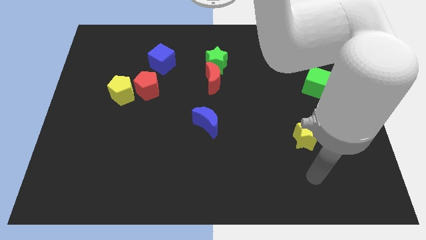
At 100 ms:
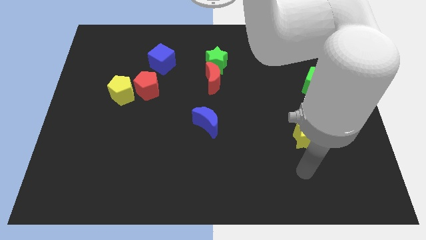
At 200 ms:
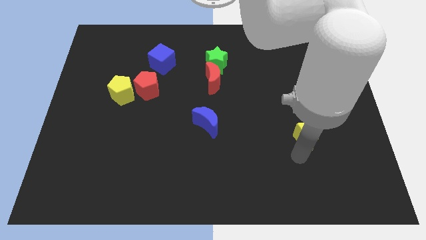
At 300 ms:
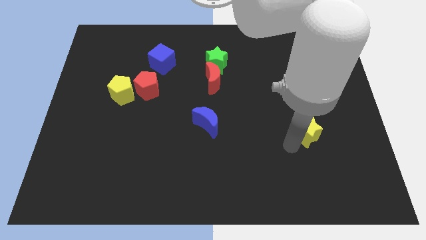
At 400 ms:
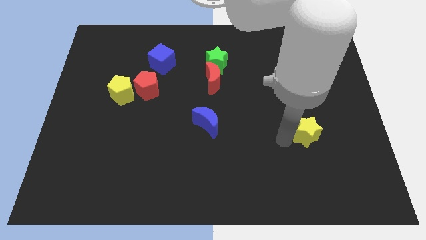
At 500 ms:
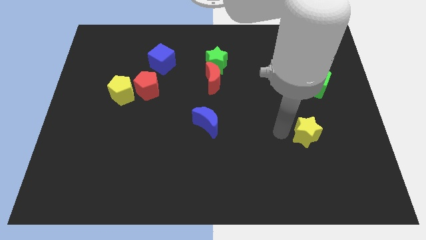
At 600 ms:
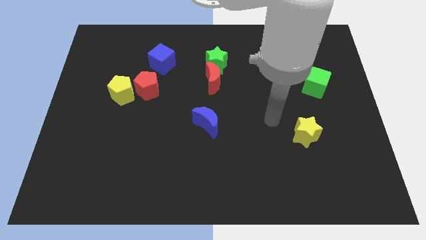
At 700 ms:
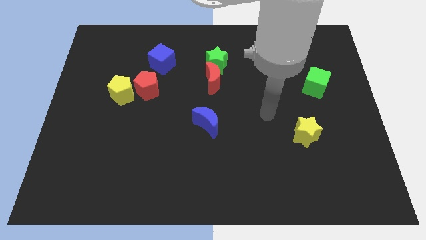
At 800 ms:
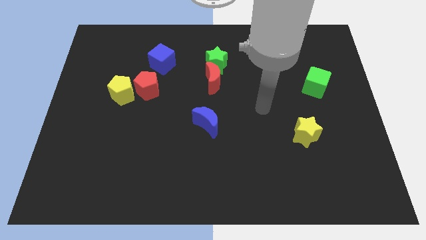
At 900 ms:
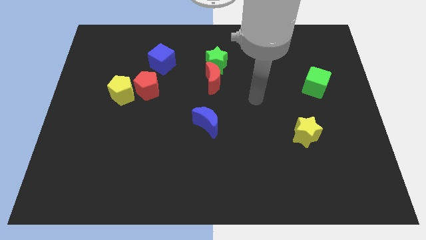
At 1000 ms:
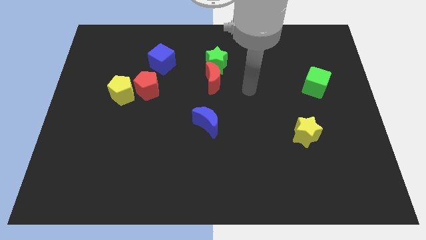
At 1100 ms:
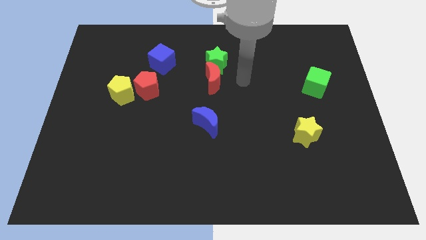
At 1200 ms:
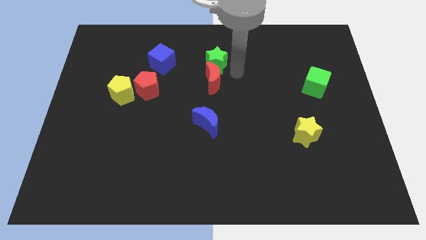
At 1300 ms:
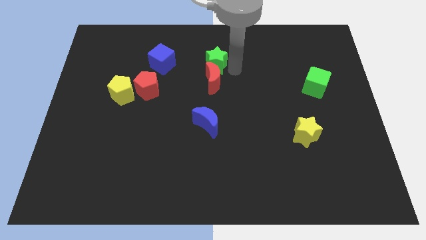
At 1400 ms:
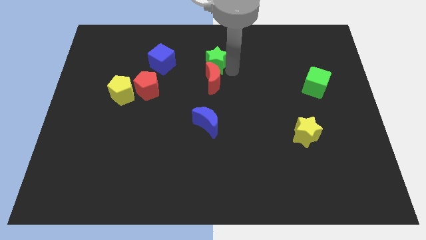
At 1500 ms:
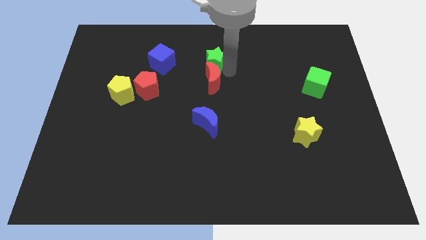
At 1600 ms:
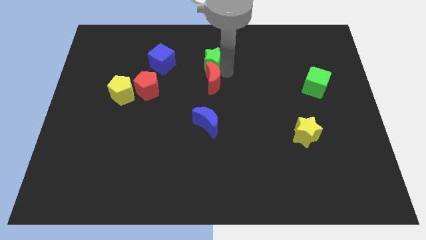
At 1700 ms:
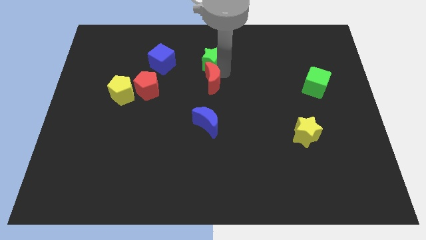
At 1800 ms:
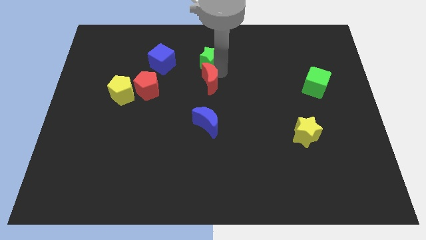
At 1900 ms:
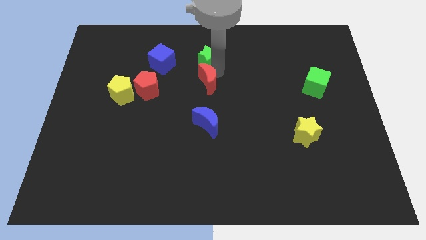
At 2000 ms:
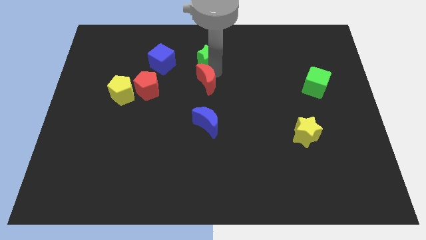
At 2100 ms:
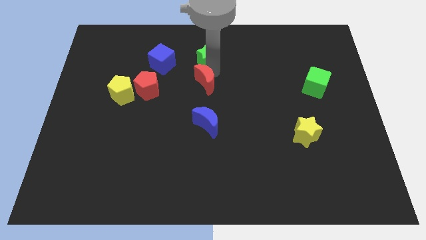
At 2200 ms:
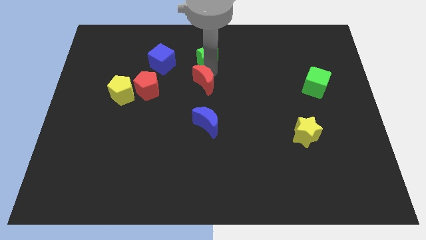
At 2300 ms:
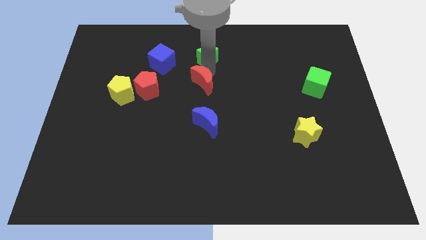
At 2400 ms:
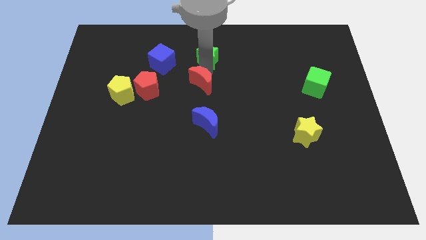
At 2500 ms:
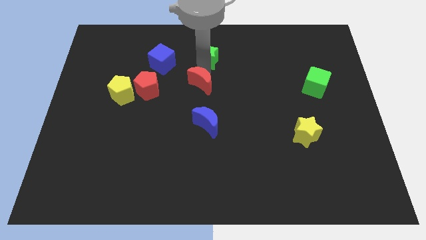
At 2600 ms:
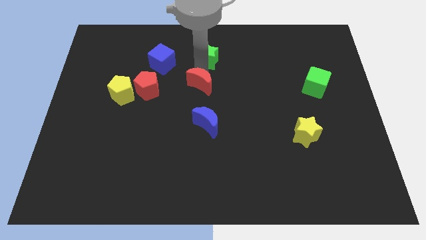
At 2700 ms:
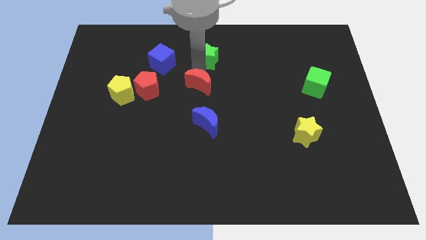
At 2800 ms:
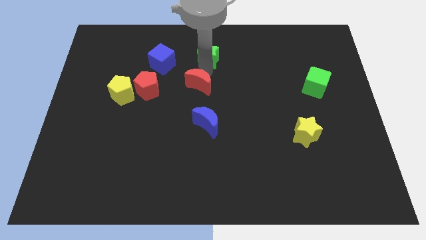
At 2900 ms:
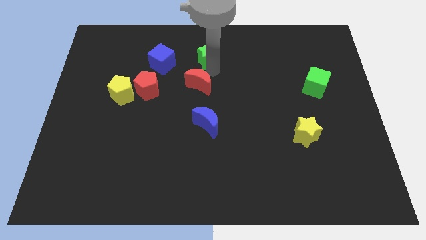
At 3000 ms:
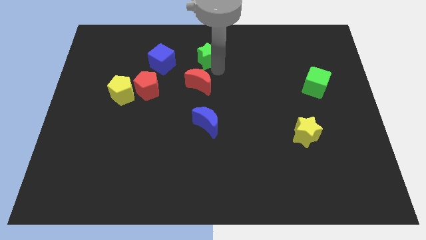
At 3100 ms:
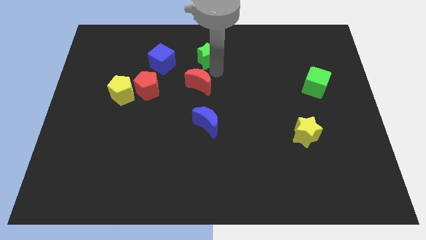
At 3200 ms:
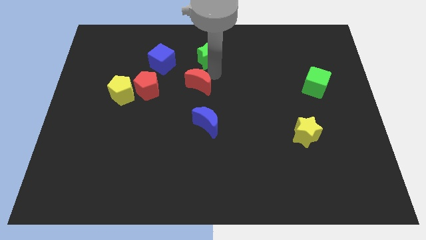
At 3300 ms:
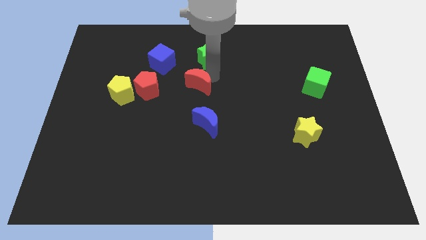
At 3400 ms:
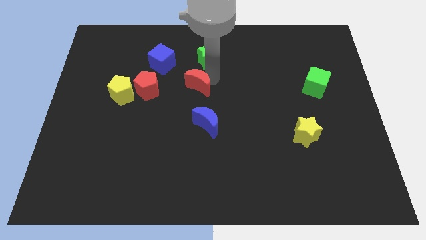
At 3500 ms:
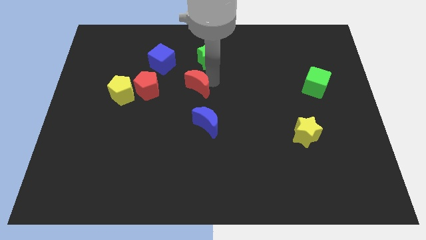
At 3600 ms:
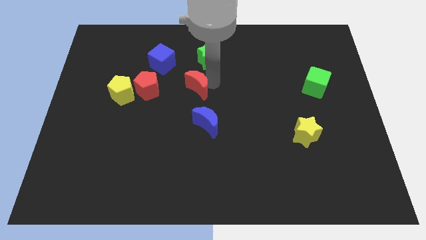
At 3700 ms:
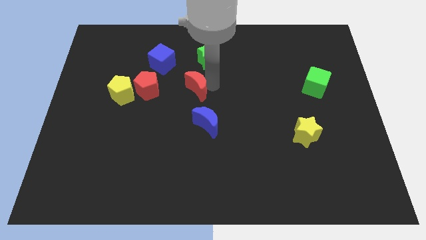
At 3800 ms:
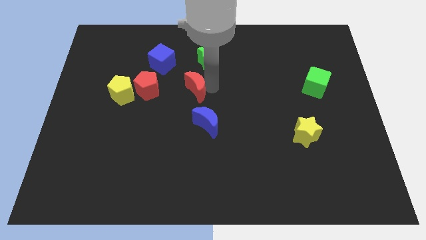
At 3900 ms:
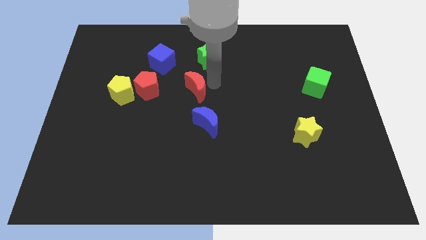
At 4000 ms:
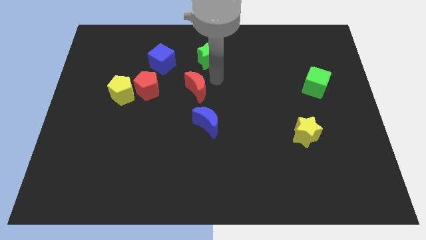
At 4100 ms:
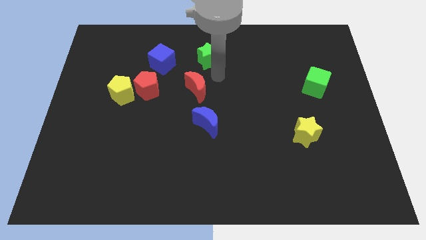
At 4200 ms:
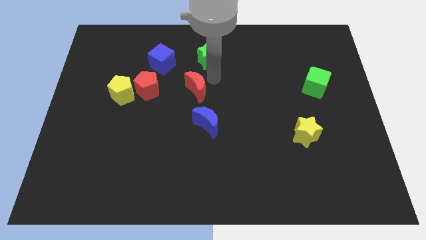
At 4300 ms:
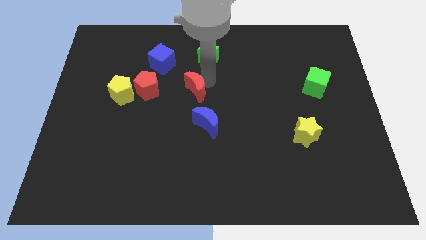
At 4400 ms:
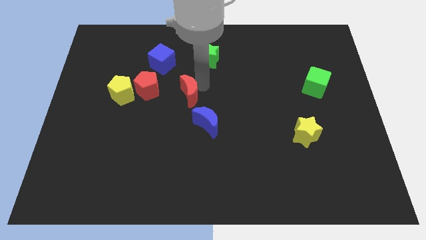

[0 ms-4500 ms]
push the red moon a bit downwards and then to the left

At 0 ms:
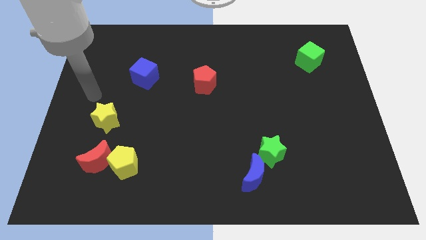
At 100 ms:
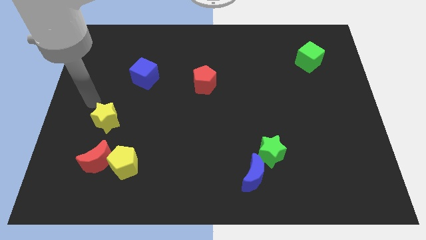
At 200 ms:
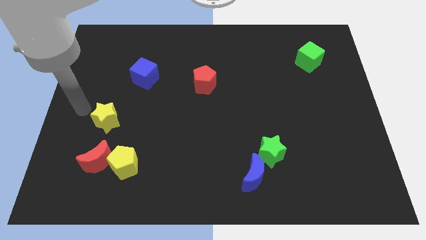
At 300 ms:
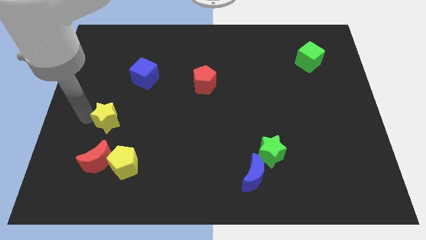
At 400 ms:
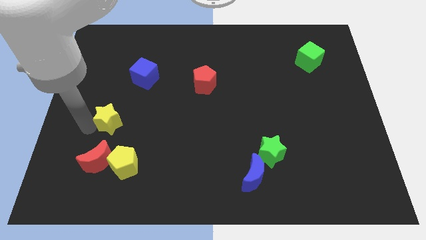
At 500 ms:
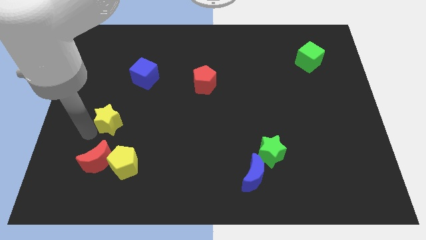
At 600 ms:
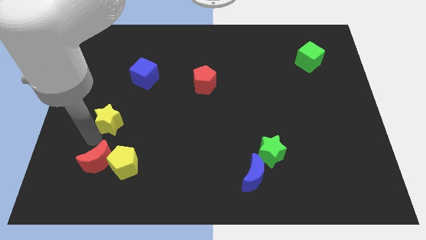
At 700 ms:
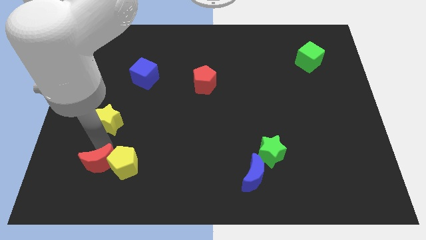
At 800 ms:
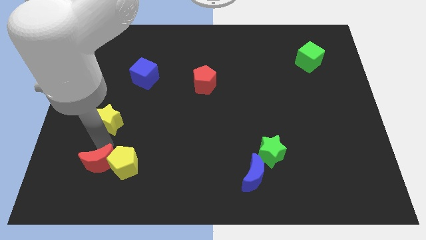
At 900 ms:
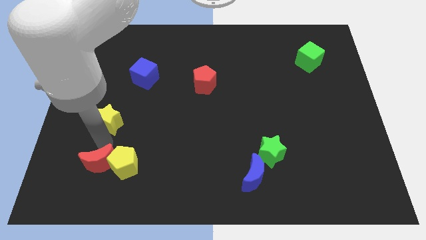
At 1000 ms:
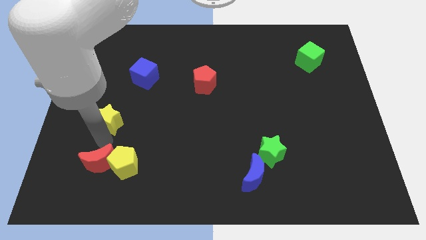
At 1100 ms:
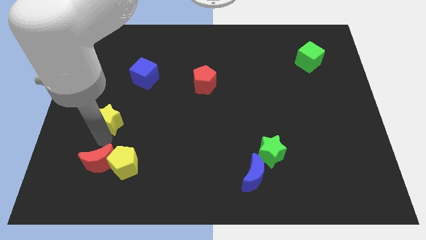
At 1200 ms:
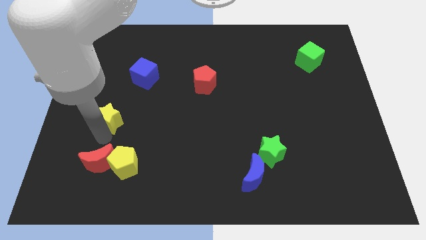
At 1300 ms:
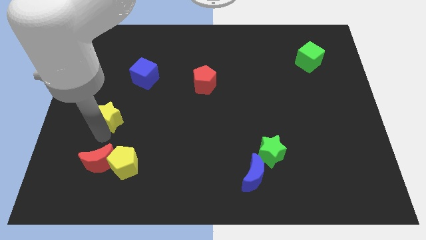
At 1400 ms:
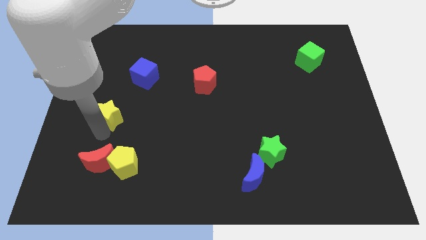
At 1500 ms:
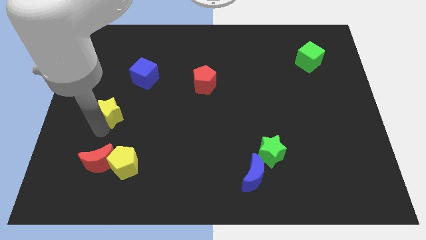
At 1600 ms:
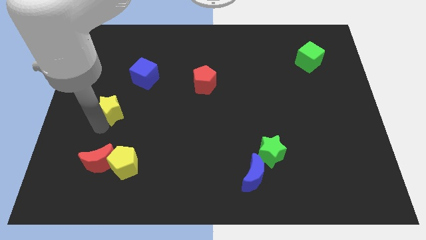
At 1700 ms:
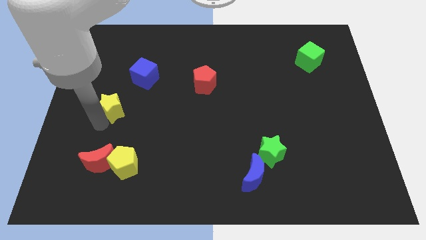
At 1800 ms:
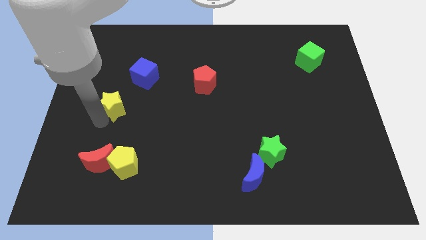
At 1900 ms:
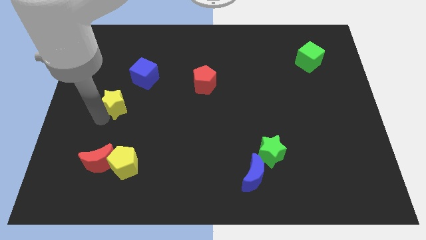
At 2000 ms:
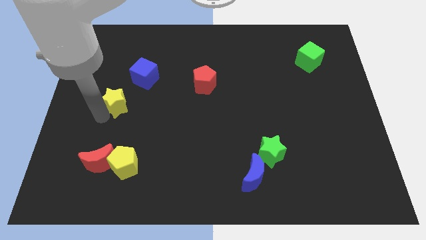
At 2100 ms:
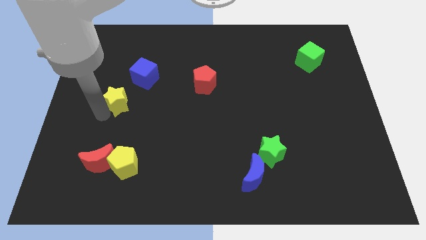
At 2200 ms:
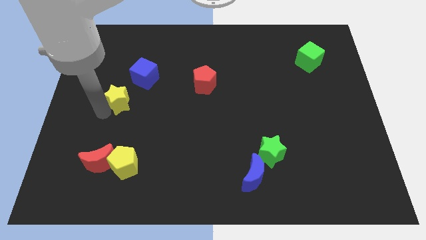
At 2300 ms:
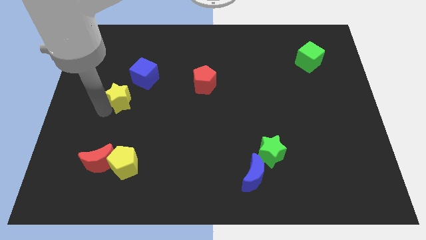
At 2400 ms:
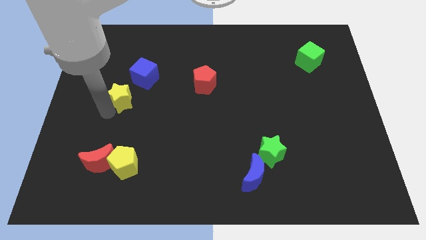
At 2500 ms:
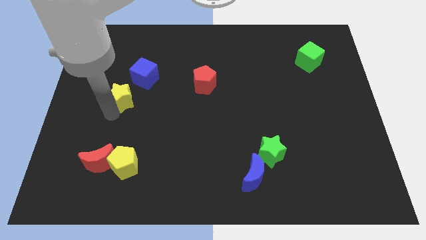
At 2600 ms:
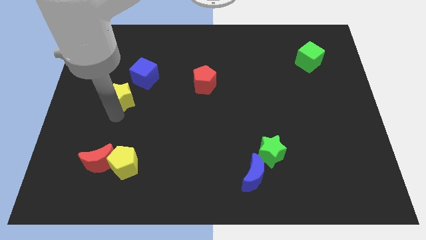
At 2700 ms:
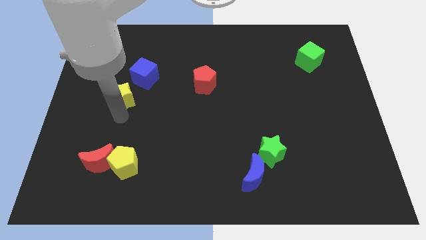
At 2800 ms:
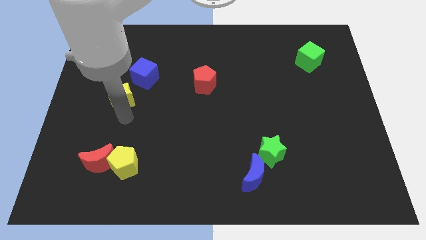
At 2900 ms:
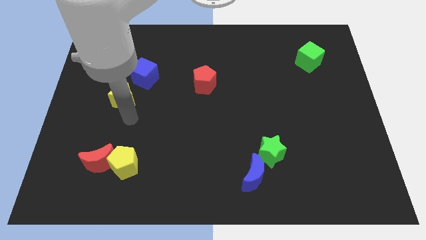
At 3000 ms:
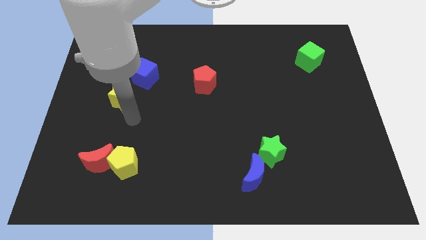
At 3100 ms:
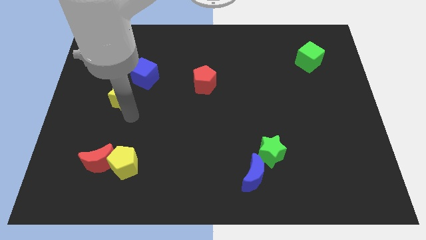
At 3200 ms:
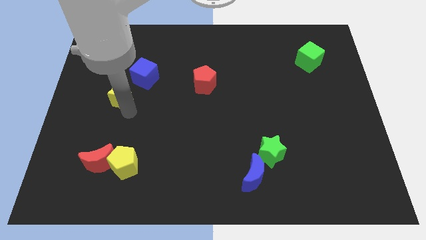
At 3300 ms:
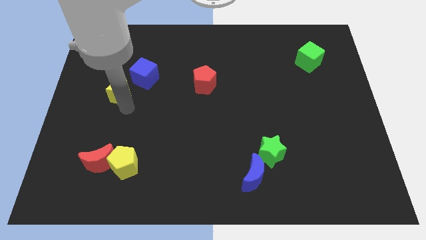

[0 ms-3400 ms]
slide the yellow star a bit up
